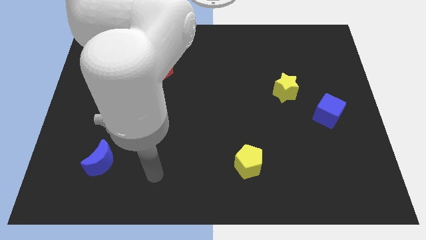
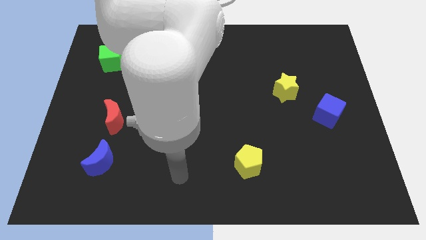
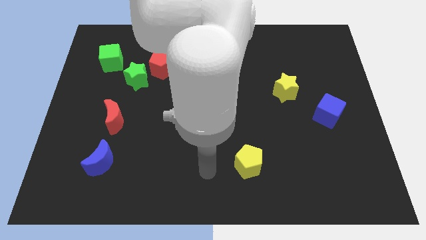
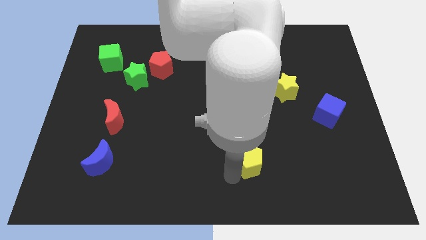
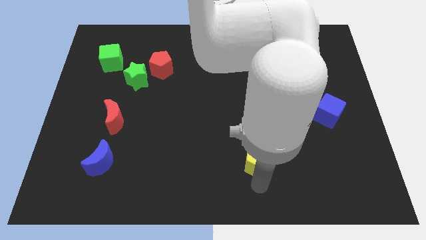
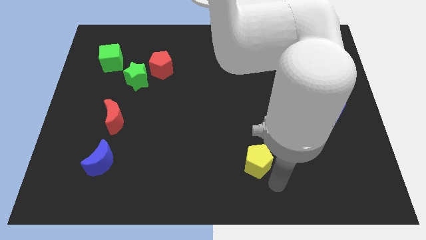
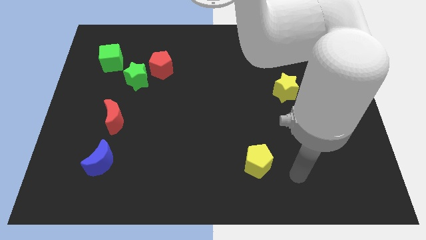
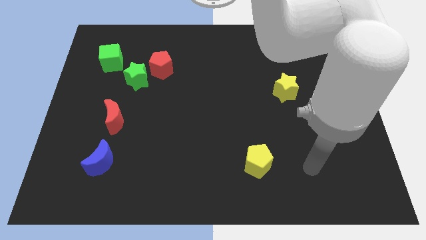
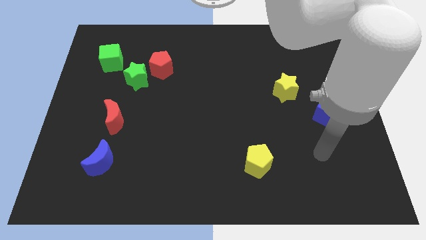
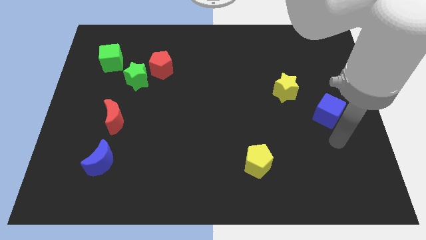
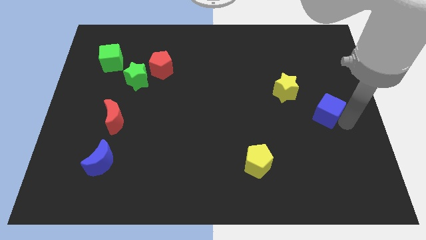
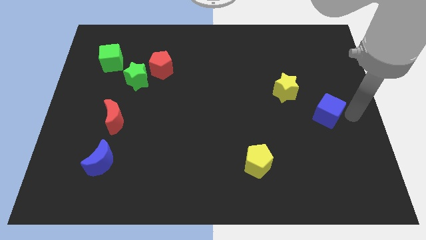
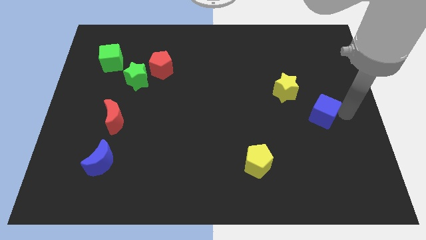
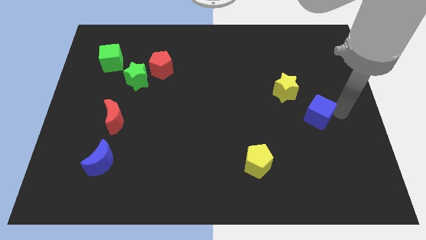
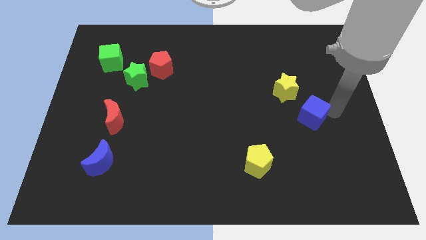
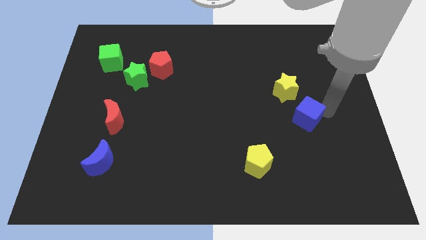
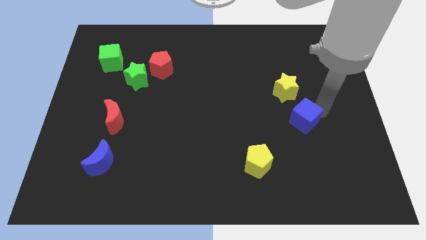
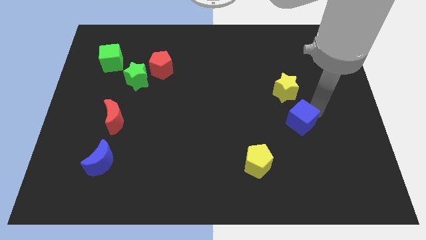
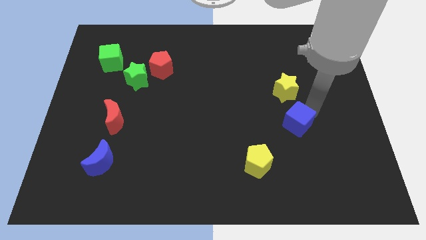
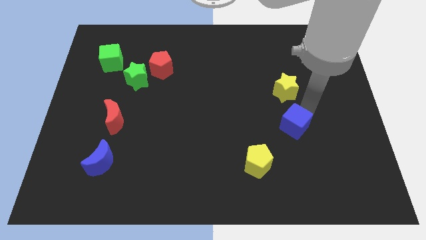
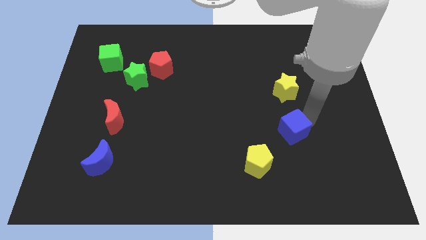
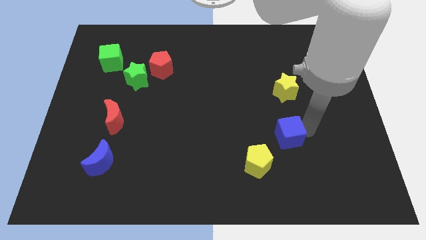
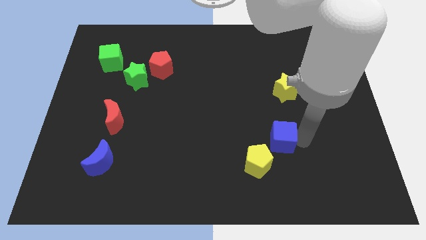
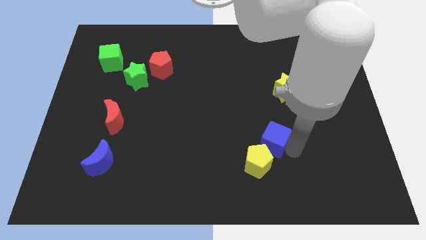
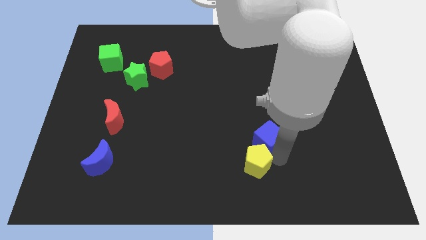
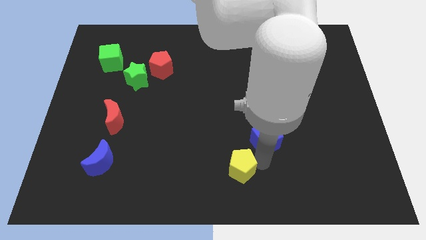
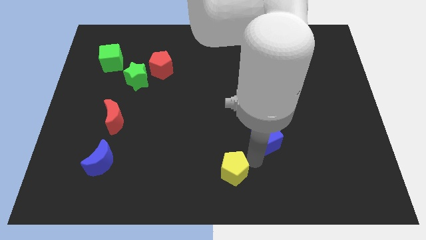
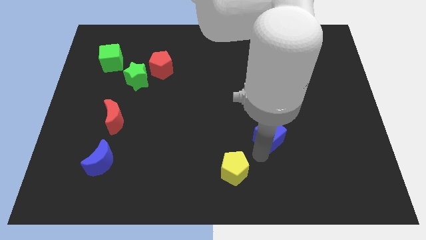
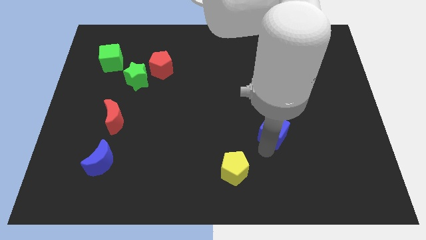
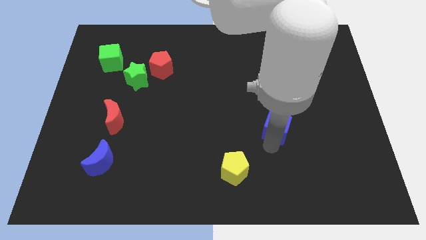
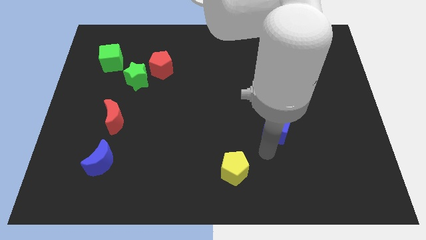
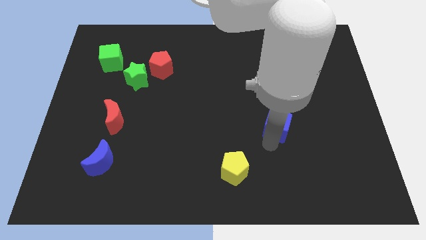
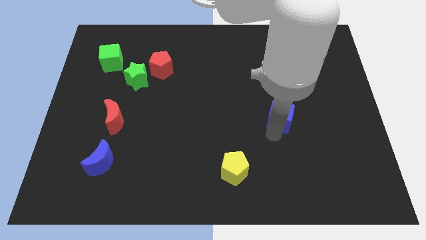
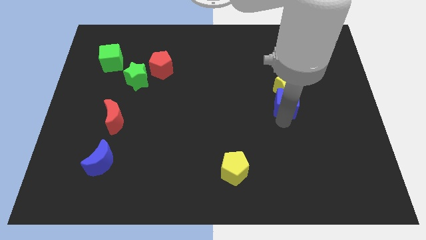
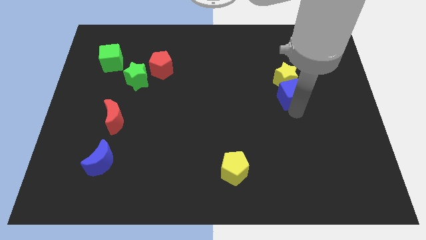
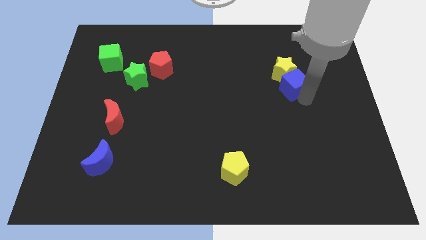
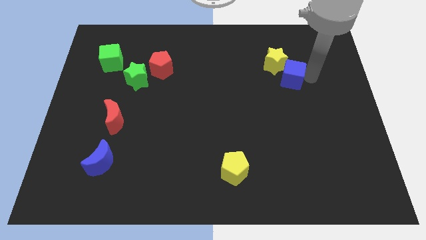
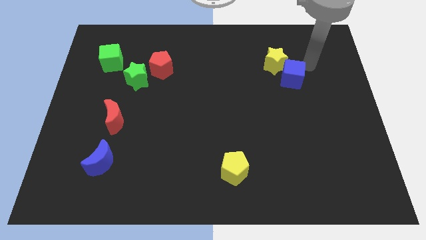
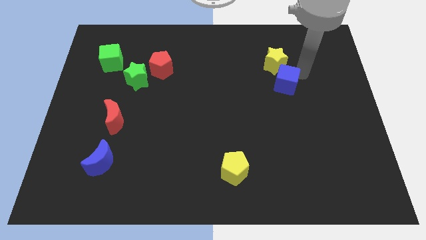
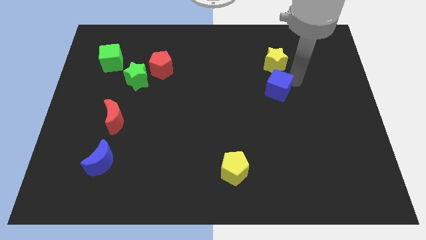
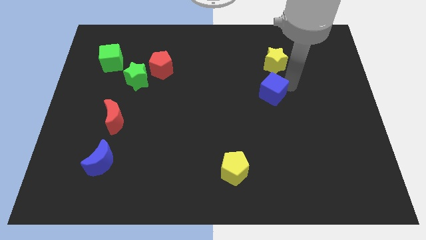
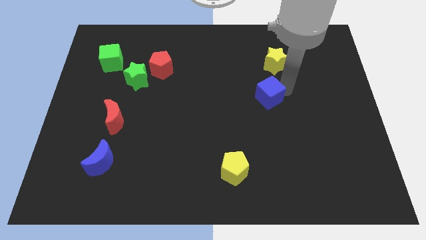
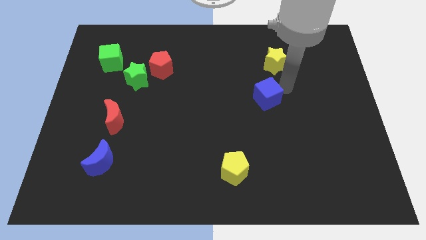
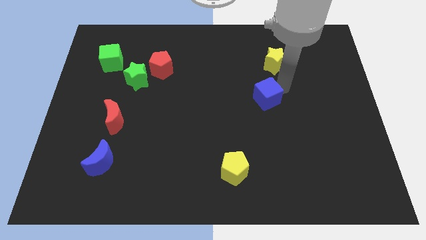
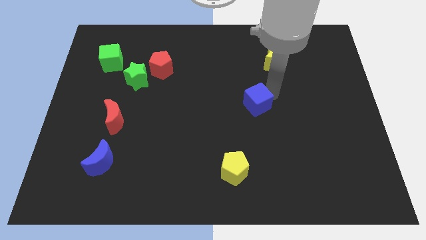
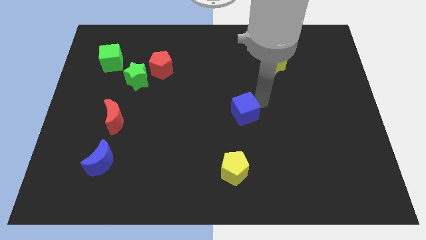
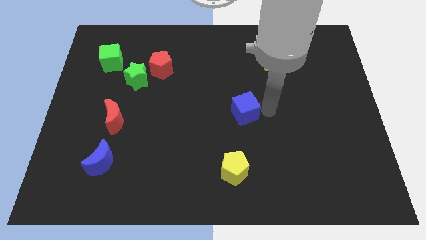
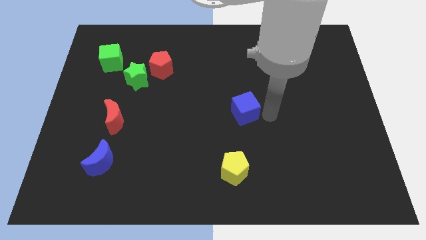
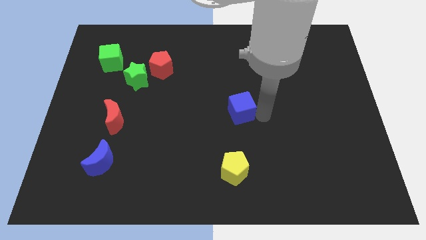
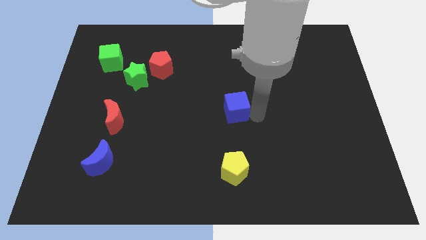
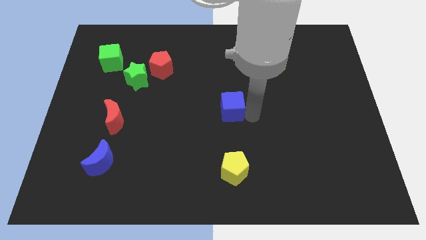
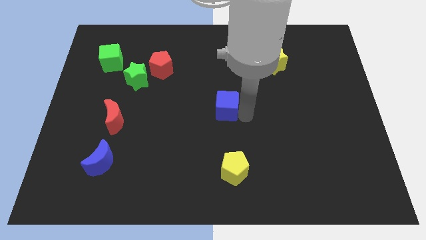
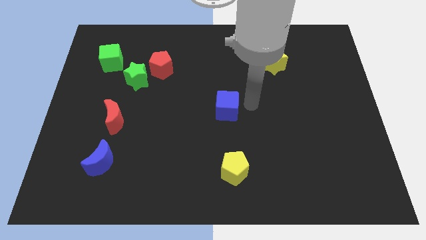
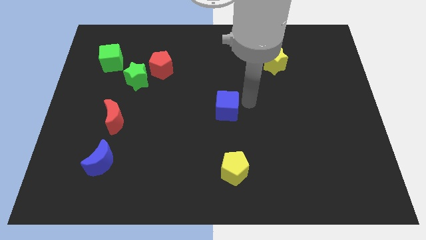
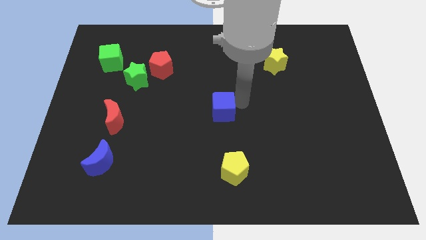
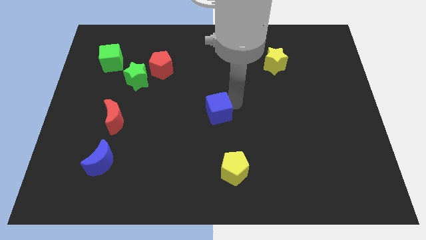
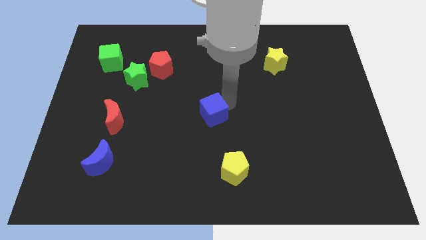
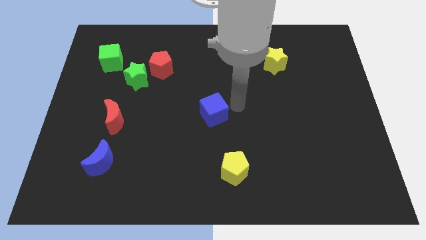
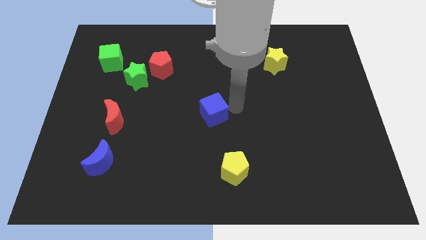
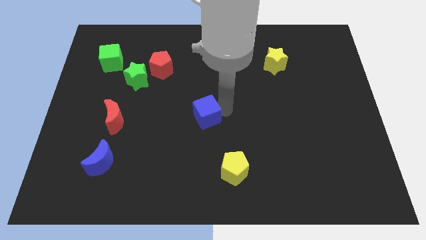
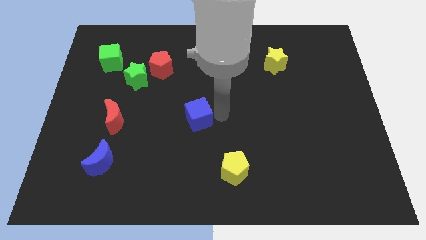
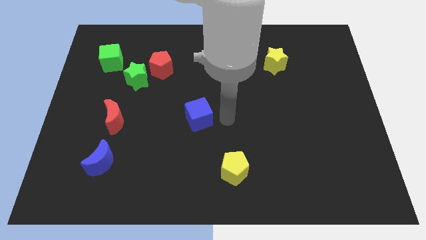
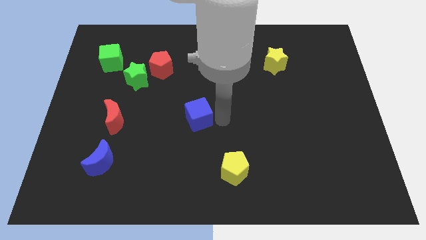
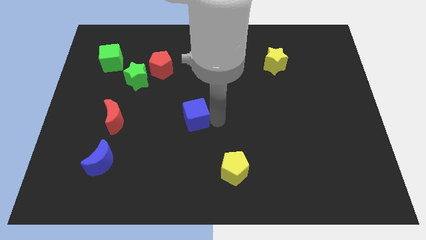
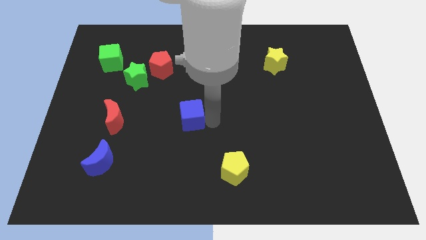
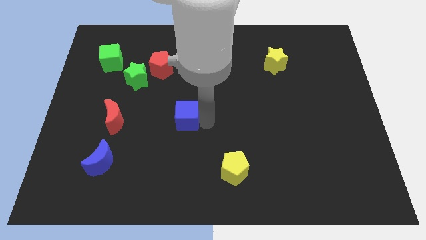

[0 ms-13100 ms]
slide the blue cube to the right side of the red moon

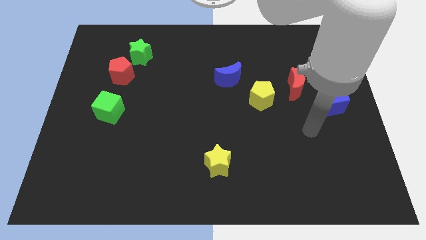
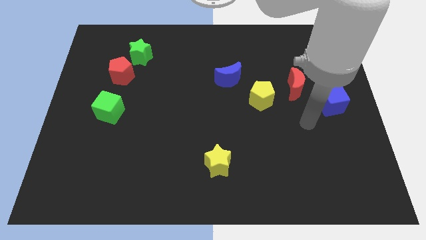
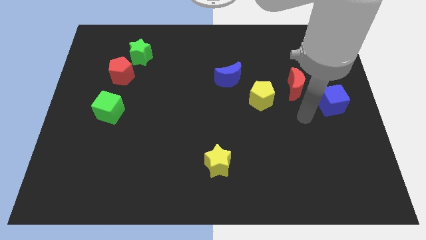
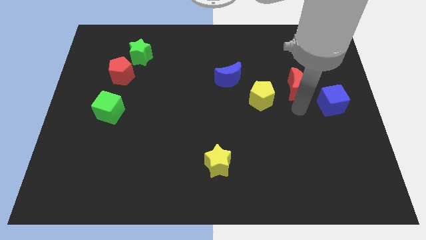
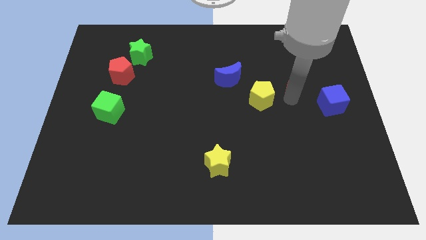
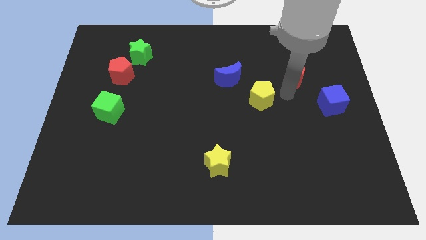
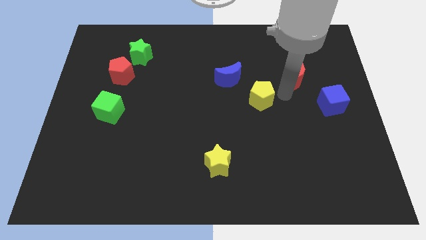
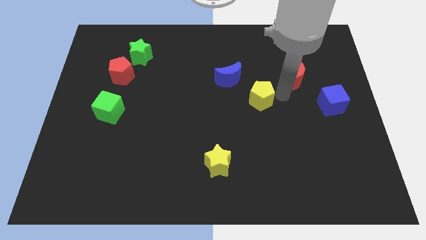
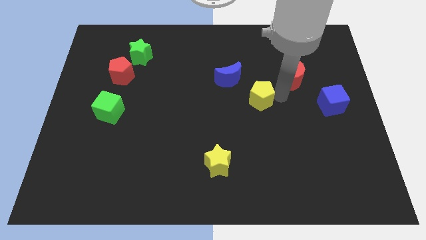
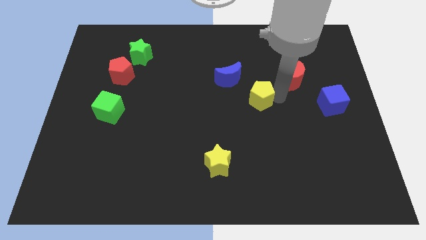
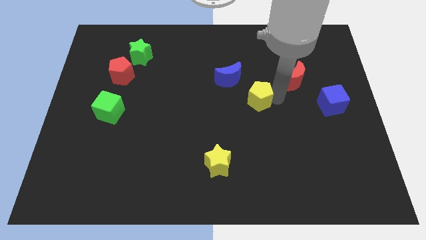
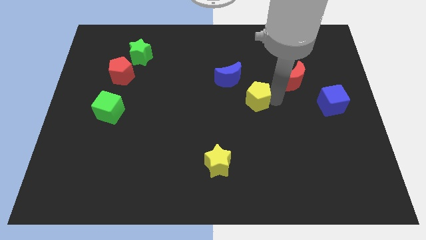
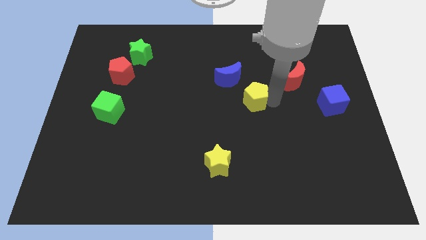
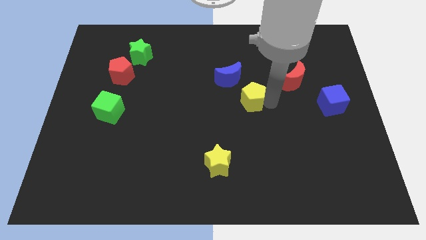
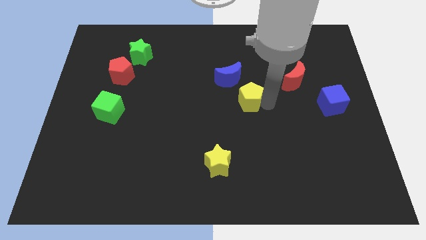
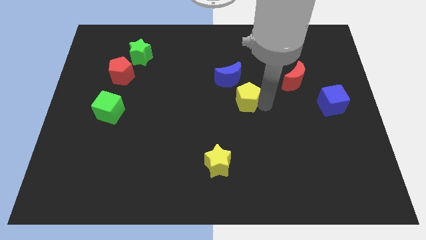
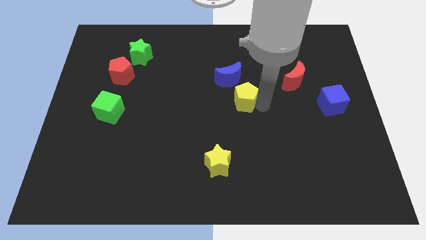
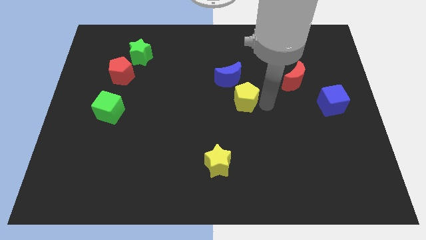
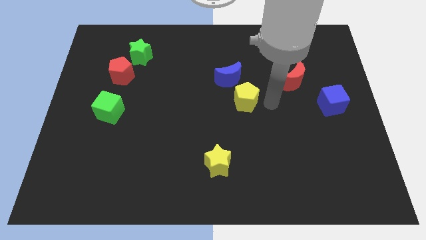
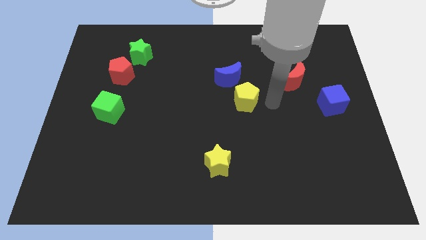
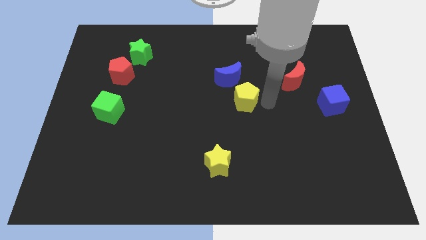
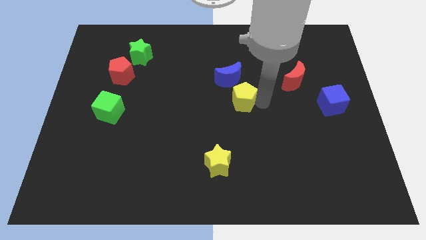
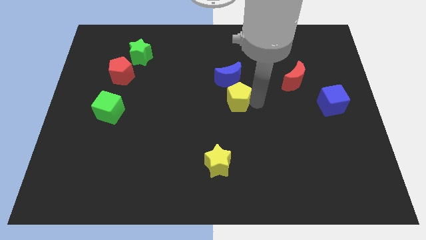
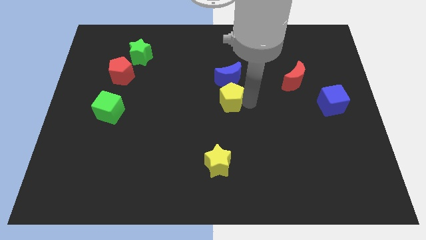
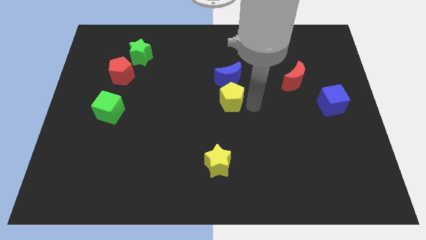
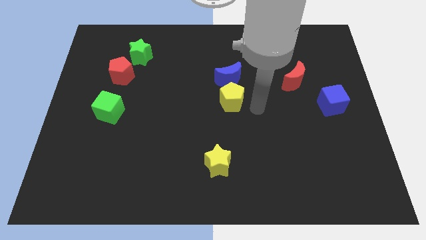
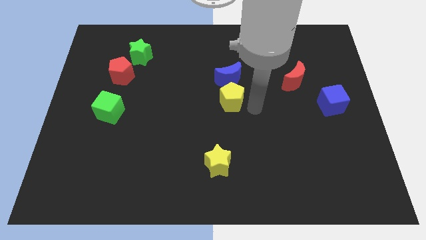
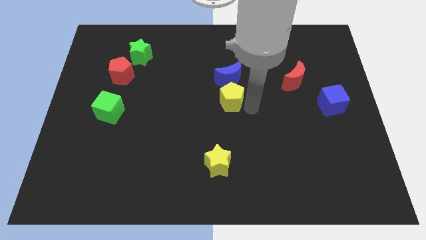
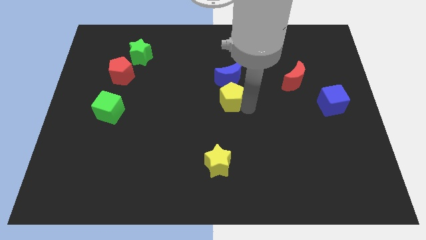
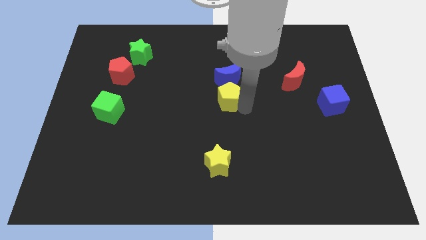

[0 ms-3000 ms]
put the yellow pentagon to the bottom left side of the blue moon
